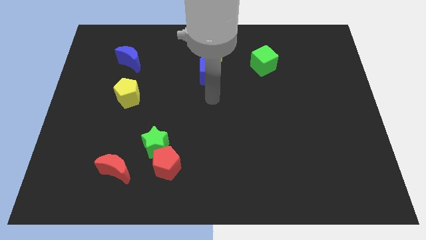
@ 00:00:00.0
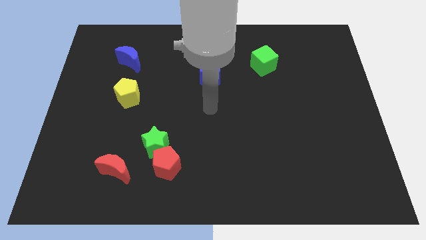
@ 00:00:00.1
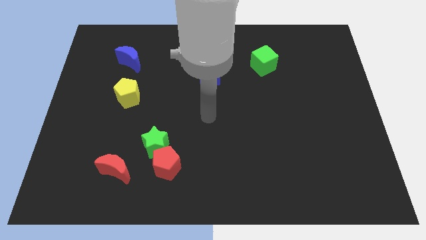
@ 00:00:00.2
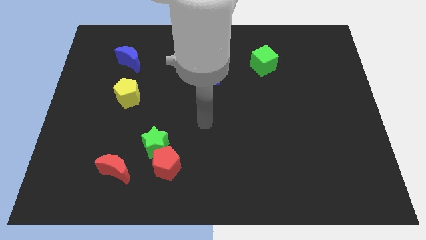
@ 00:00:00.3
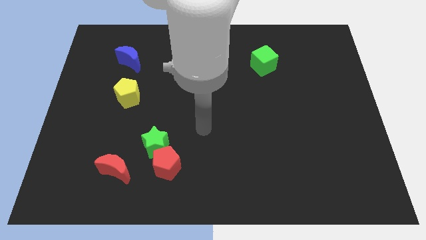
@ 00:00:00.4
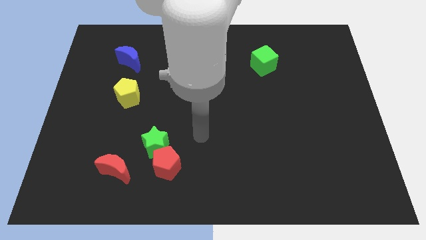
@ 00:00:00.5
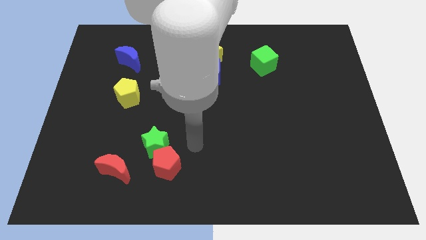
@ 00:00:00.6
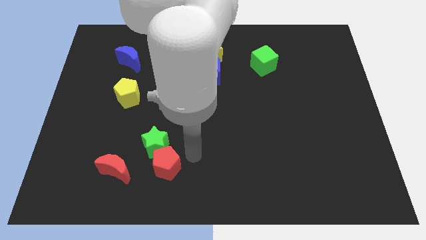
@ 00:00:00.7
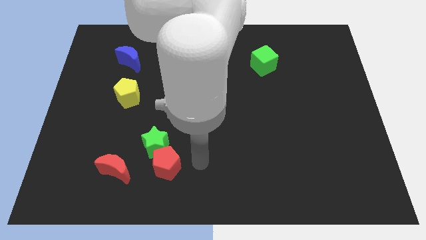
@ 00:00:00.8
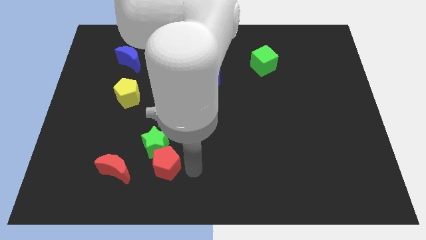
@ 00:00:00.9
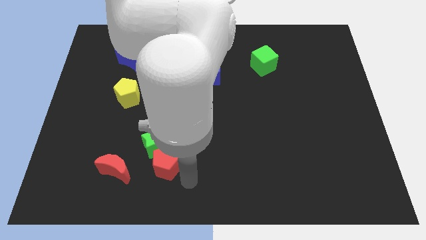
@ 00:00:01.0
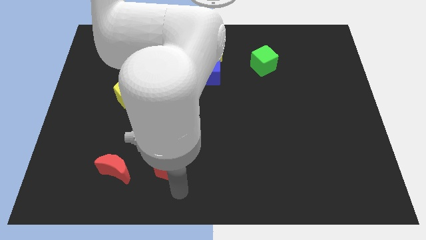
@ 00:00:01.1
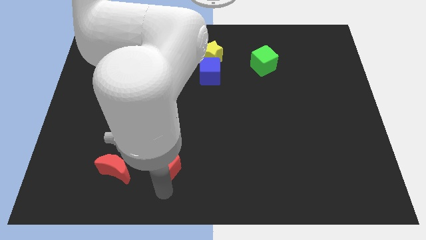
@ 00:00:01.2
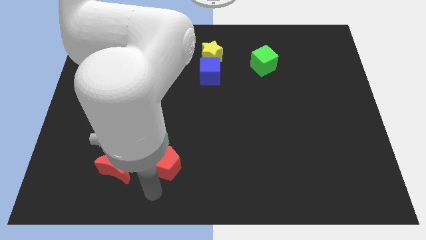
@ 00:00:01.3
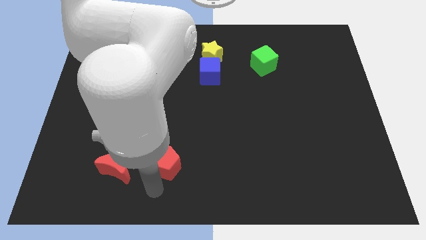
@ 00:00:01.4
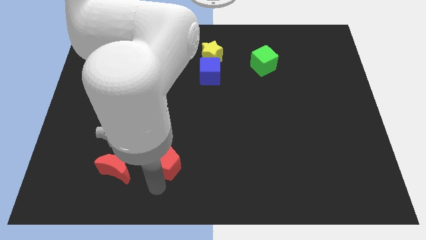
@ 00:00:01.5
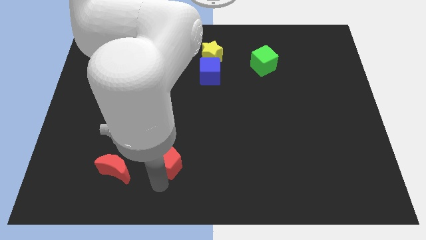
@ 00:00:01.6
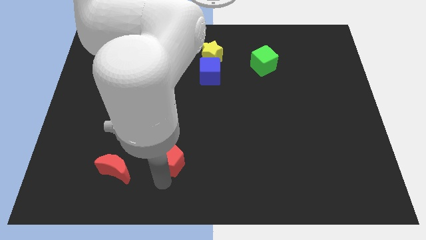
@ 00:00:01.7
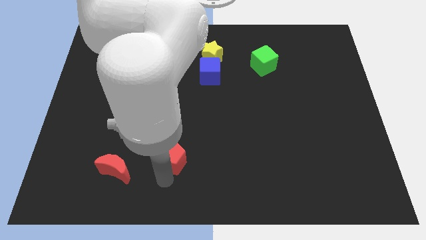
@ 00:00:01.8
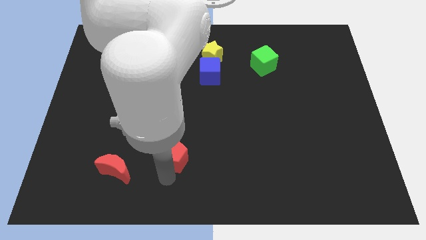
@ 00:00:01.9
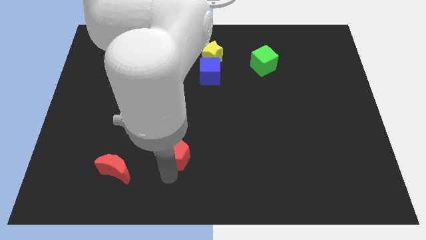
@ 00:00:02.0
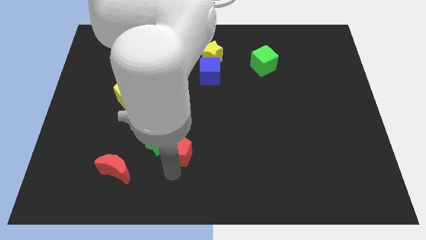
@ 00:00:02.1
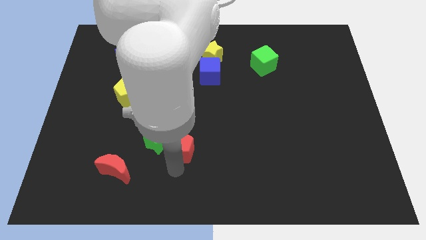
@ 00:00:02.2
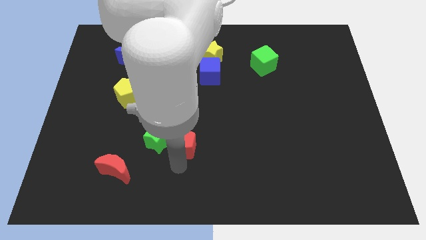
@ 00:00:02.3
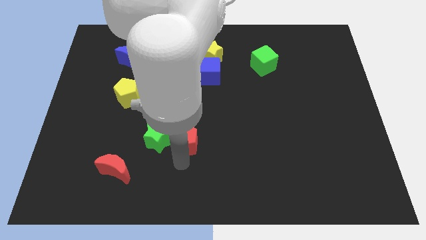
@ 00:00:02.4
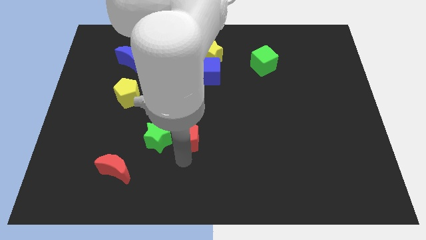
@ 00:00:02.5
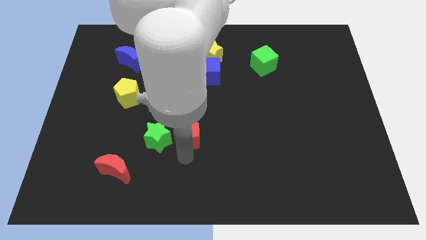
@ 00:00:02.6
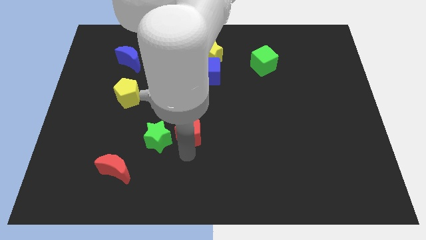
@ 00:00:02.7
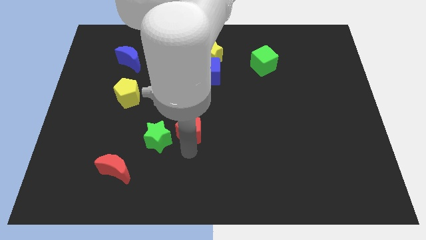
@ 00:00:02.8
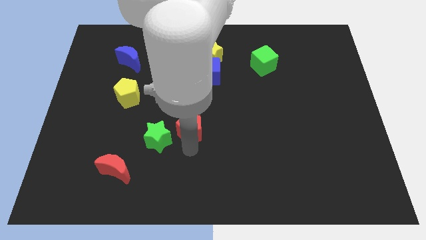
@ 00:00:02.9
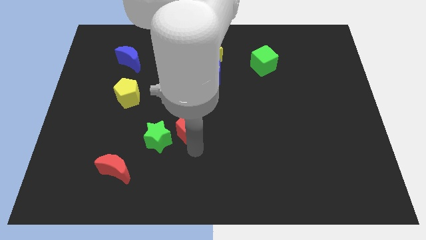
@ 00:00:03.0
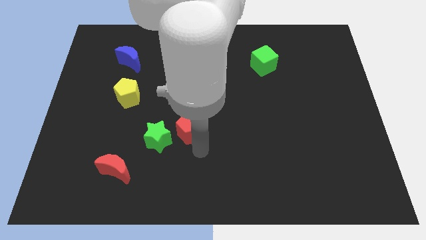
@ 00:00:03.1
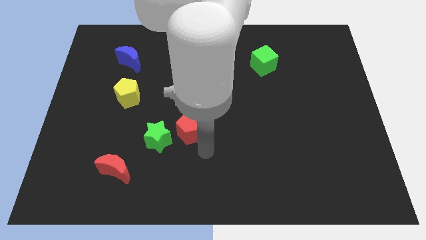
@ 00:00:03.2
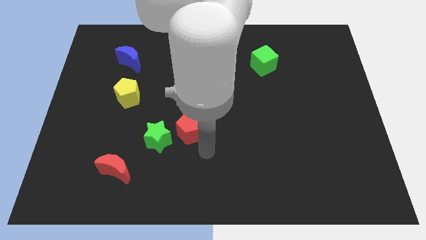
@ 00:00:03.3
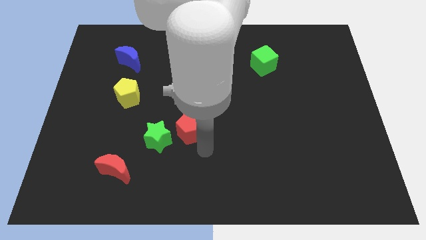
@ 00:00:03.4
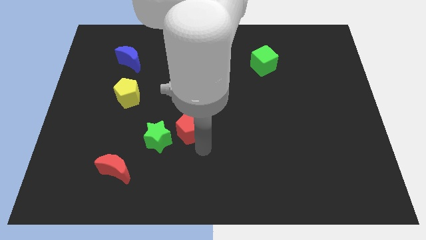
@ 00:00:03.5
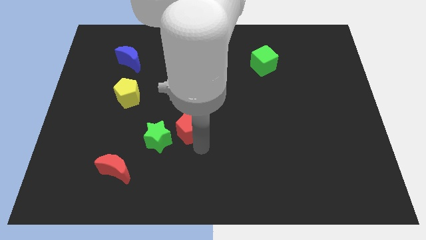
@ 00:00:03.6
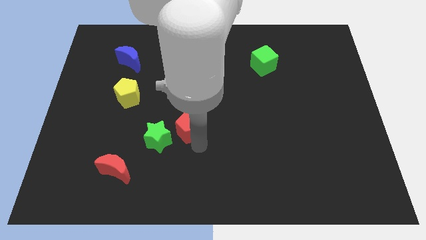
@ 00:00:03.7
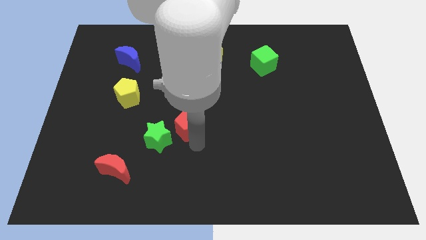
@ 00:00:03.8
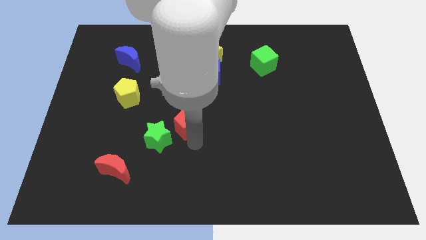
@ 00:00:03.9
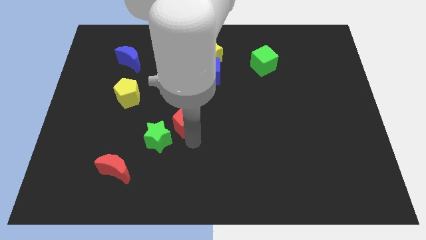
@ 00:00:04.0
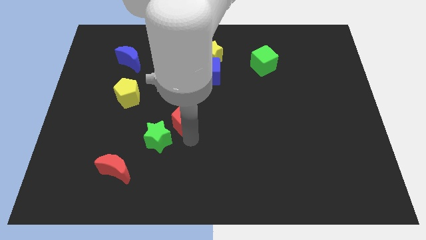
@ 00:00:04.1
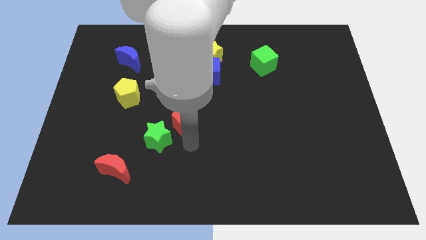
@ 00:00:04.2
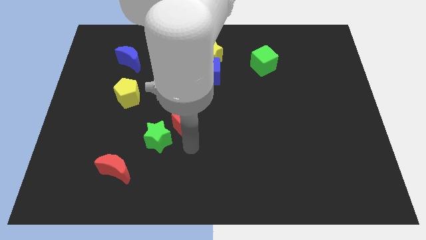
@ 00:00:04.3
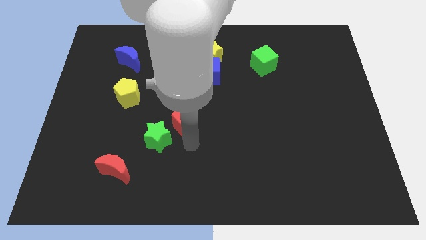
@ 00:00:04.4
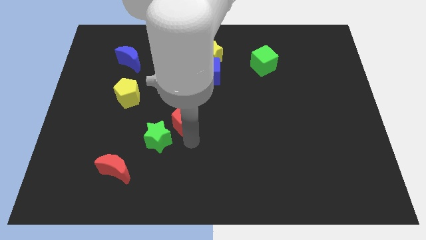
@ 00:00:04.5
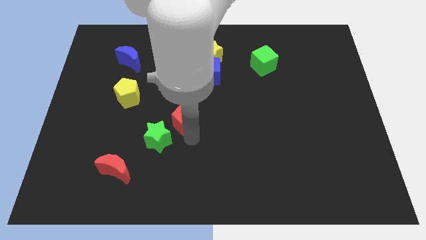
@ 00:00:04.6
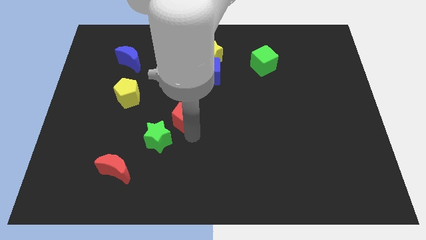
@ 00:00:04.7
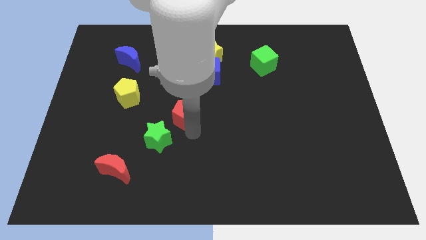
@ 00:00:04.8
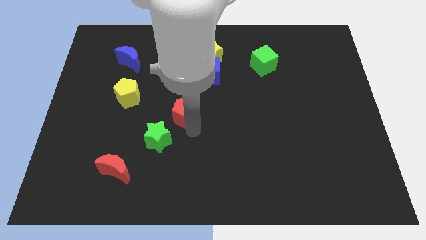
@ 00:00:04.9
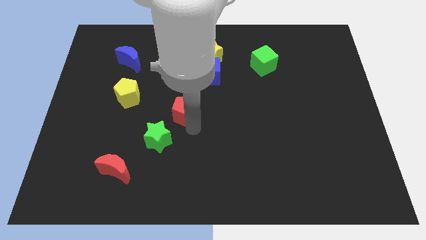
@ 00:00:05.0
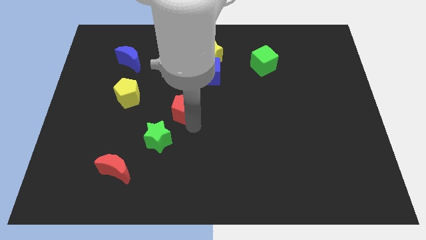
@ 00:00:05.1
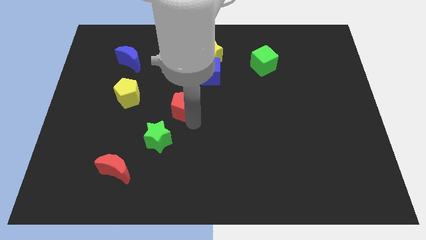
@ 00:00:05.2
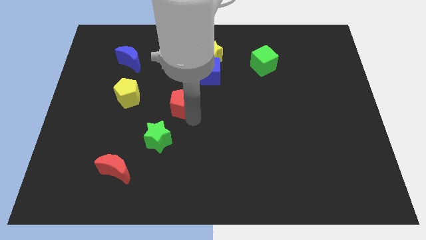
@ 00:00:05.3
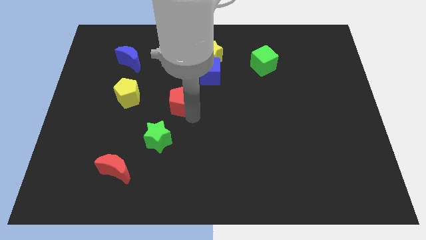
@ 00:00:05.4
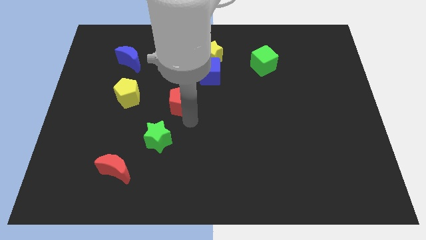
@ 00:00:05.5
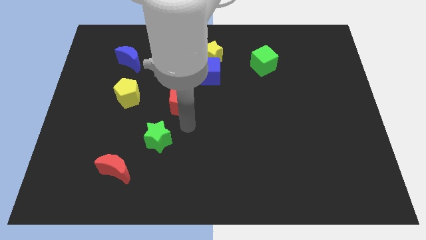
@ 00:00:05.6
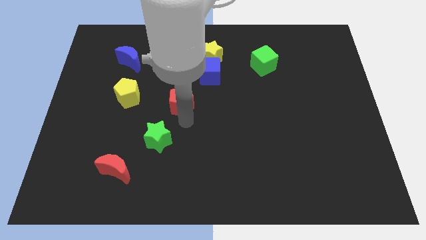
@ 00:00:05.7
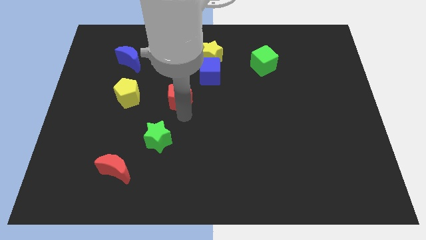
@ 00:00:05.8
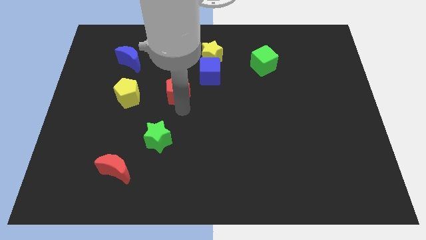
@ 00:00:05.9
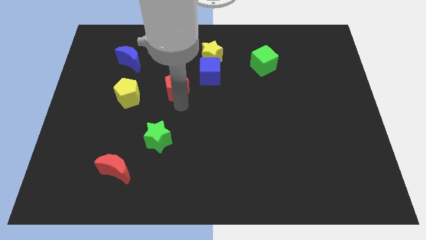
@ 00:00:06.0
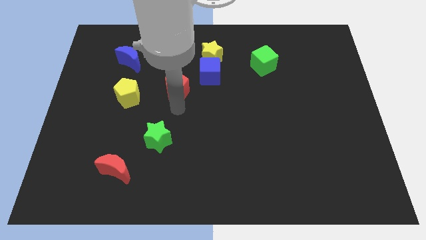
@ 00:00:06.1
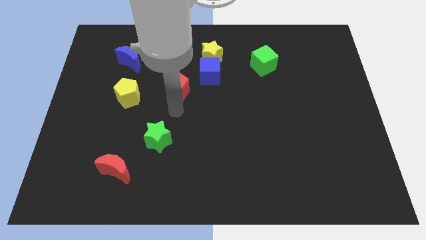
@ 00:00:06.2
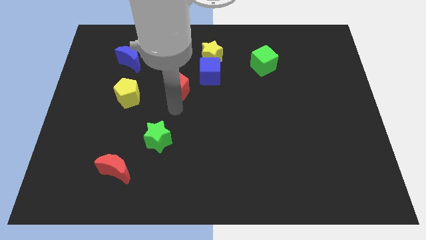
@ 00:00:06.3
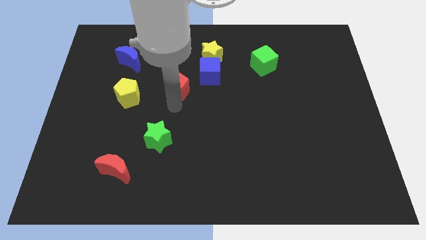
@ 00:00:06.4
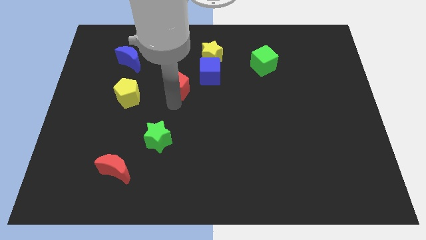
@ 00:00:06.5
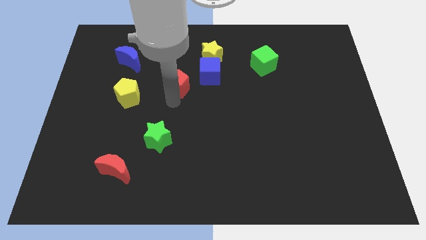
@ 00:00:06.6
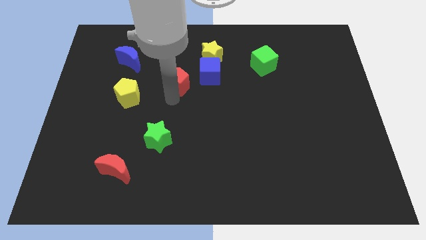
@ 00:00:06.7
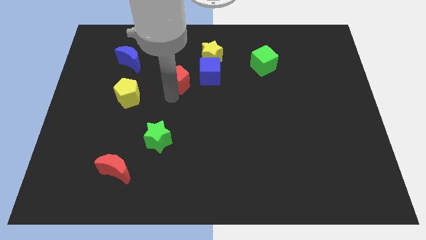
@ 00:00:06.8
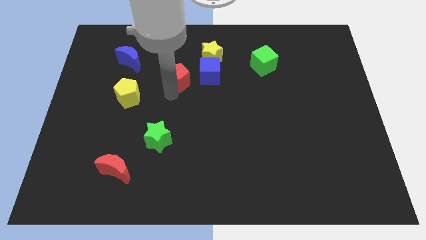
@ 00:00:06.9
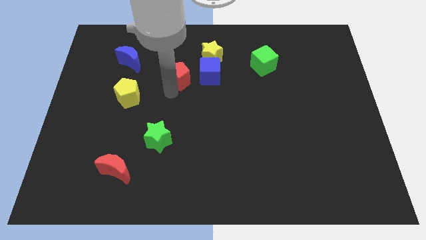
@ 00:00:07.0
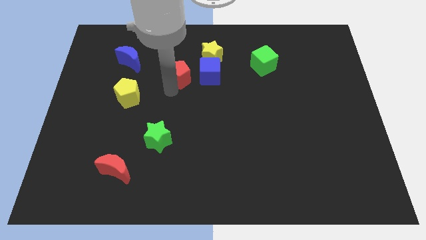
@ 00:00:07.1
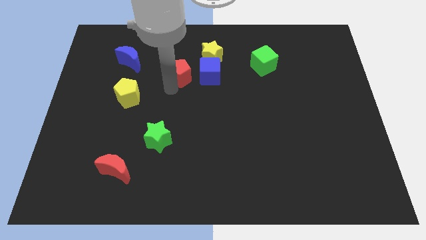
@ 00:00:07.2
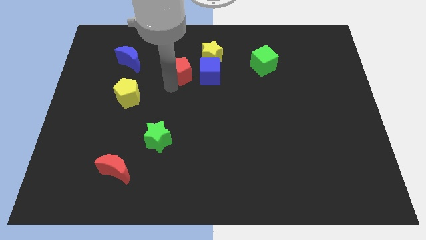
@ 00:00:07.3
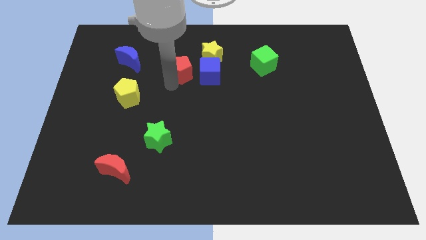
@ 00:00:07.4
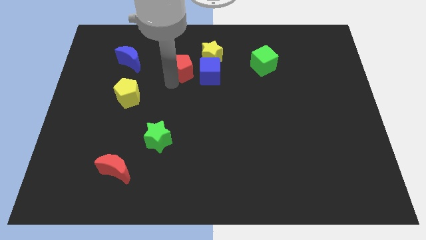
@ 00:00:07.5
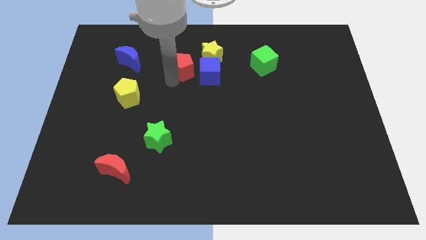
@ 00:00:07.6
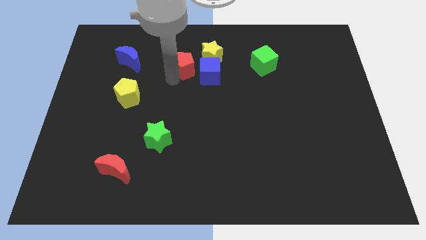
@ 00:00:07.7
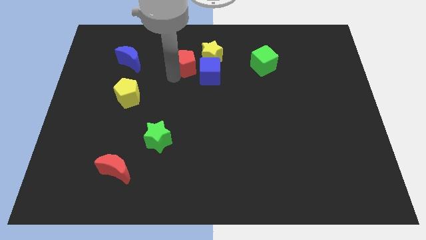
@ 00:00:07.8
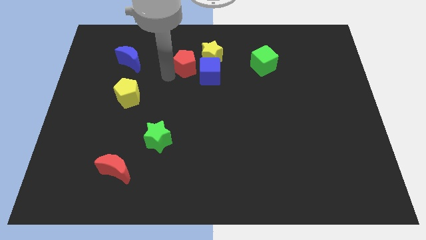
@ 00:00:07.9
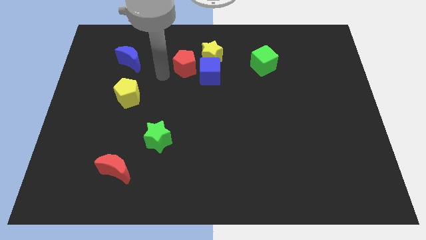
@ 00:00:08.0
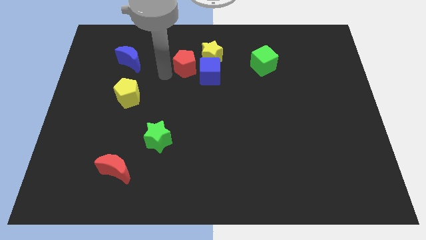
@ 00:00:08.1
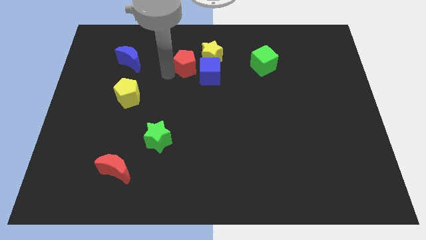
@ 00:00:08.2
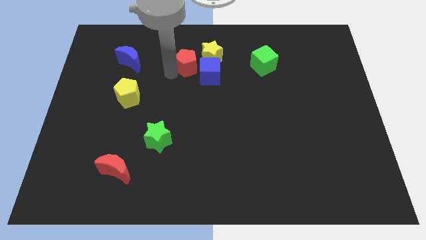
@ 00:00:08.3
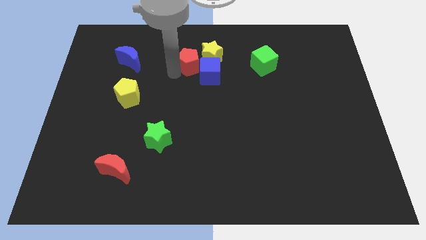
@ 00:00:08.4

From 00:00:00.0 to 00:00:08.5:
move the red pentagon to the yellow star
